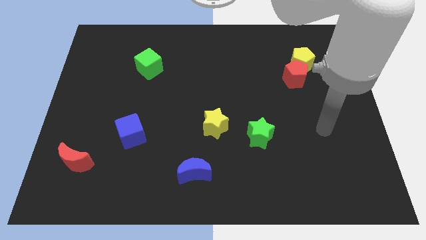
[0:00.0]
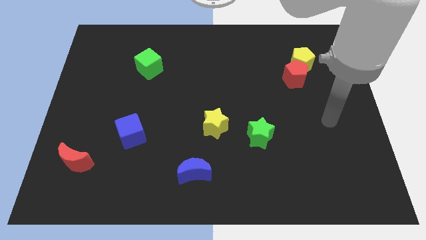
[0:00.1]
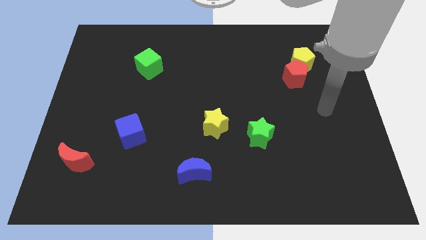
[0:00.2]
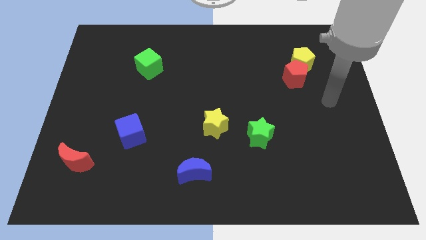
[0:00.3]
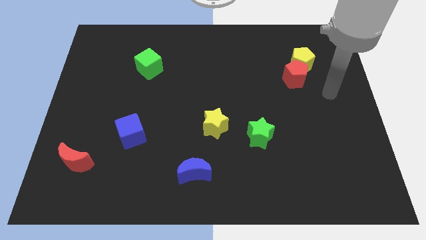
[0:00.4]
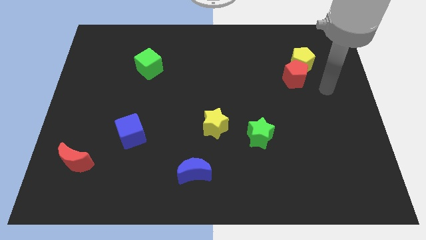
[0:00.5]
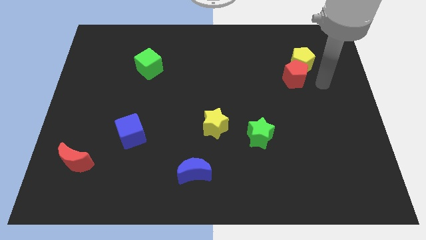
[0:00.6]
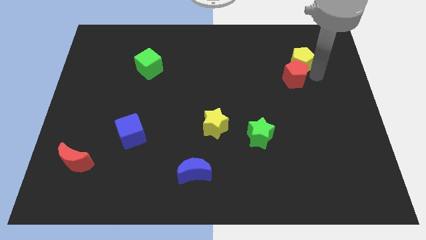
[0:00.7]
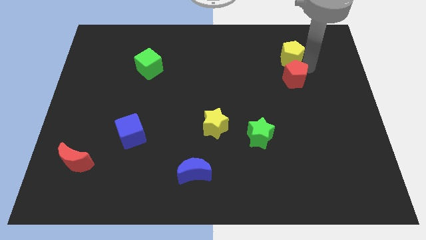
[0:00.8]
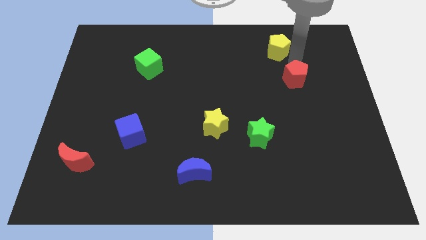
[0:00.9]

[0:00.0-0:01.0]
separate the red pentagon from the yellow pentagon

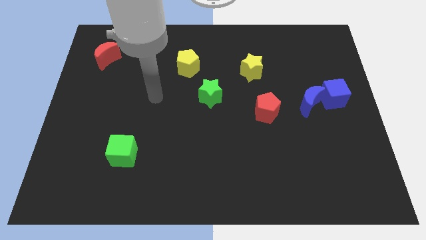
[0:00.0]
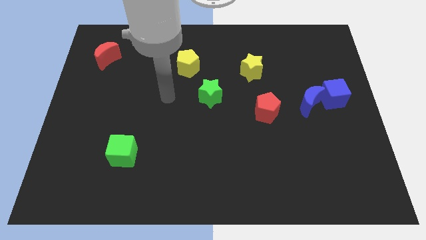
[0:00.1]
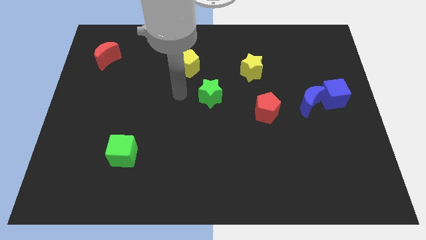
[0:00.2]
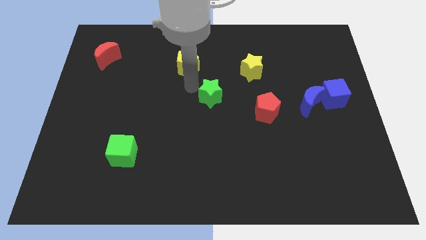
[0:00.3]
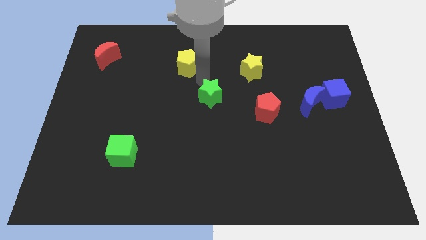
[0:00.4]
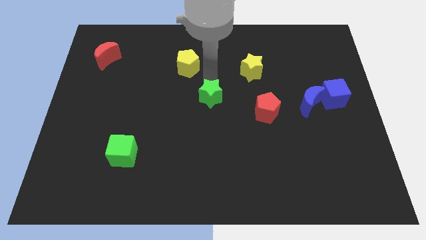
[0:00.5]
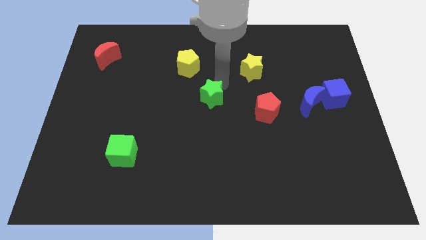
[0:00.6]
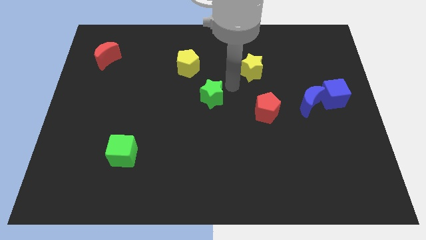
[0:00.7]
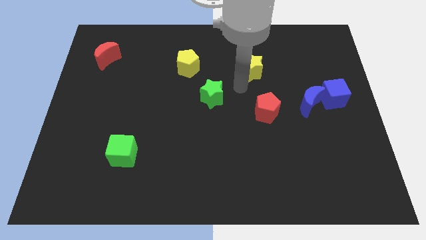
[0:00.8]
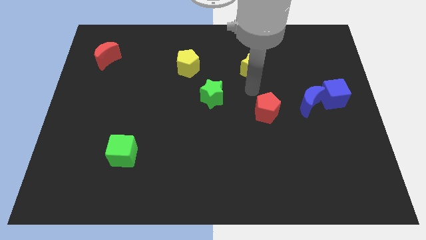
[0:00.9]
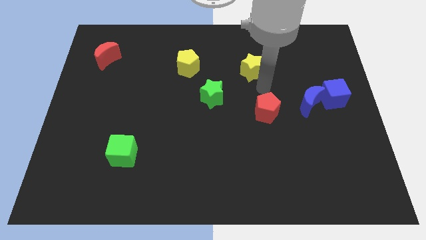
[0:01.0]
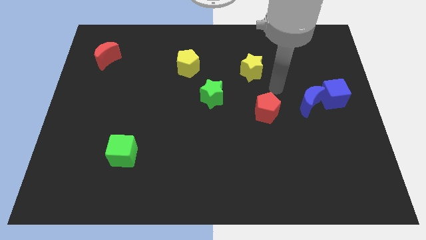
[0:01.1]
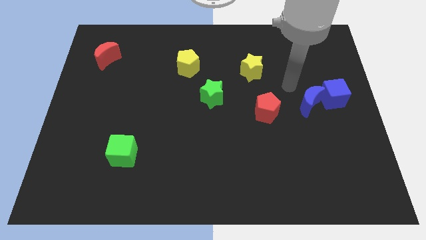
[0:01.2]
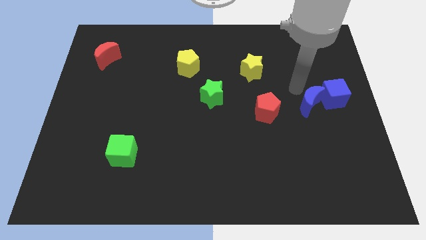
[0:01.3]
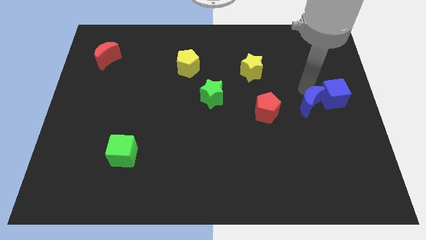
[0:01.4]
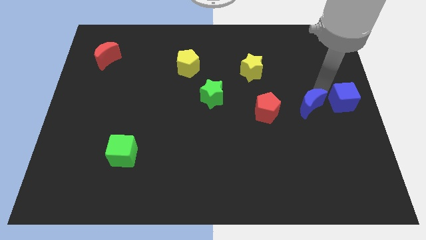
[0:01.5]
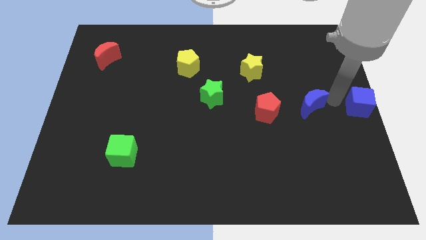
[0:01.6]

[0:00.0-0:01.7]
pull the blue moon apart from the blue cube

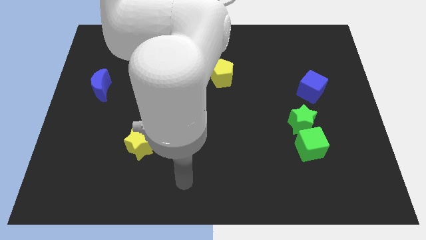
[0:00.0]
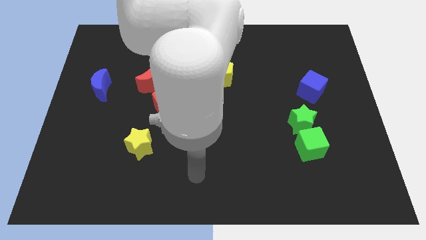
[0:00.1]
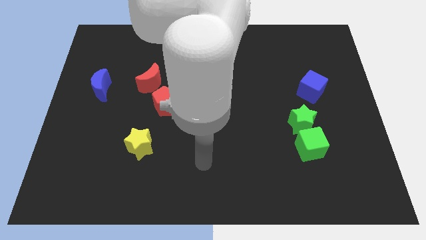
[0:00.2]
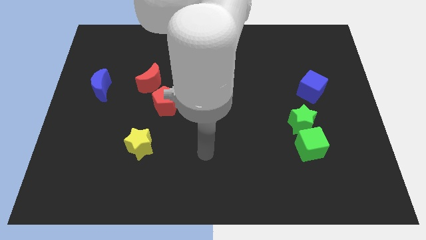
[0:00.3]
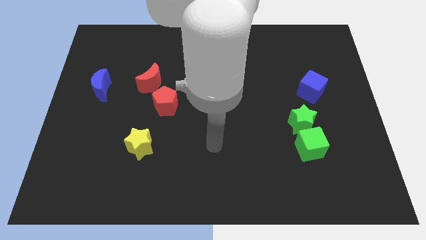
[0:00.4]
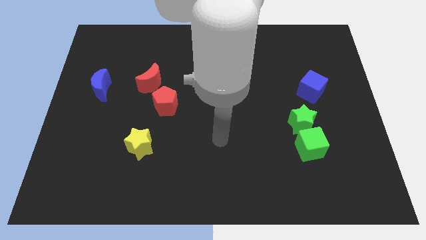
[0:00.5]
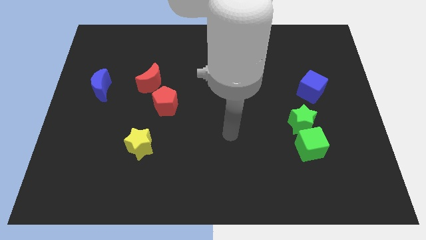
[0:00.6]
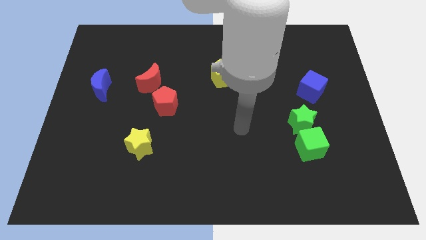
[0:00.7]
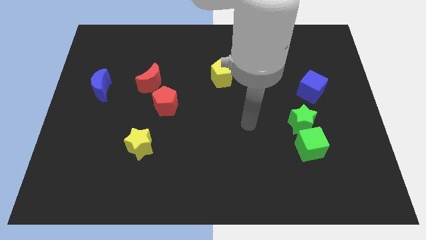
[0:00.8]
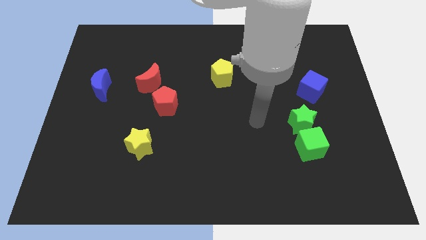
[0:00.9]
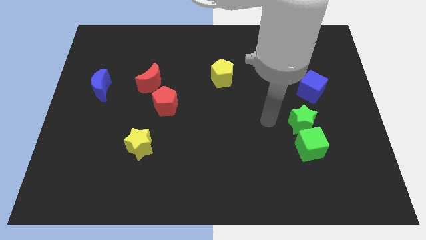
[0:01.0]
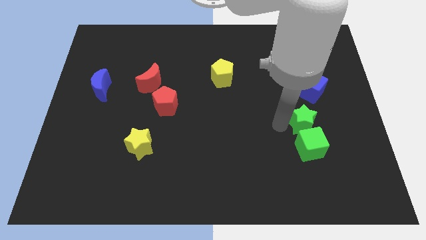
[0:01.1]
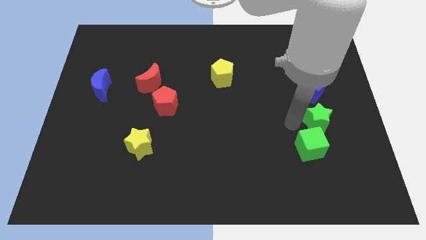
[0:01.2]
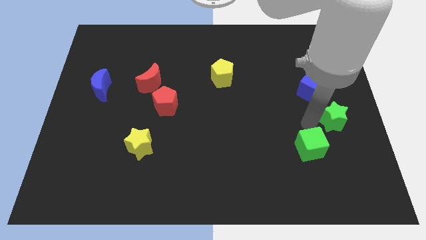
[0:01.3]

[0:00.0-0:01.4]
pull the green cube apart from the green star

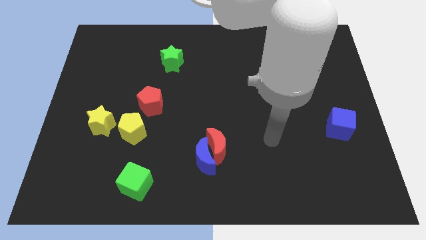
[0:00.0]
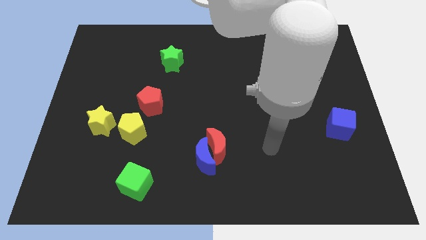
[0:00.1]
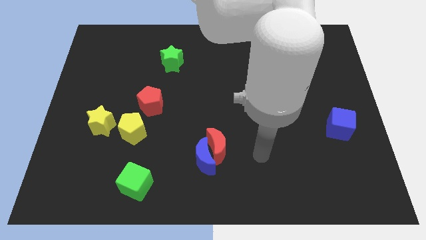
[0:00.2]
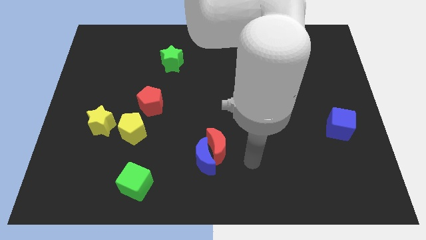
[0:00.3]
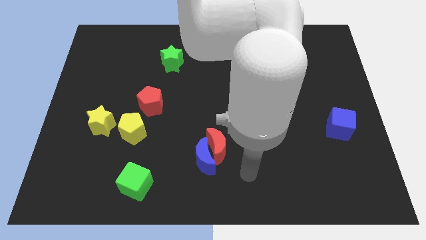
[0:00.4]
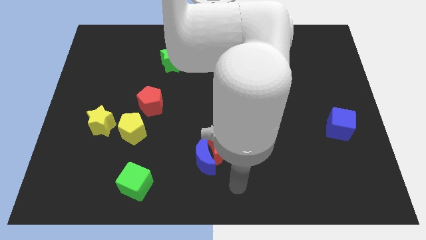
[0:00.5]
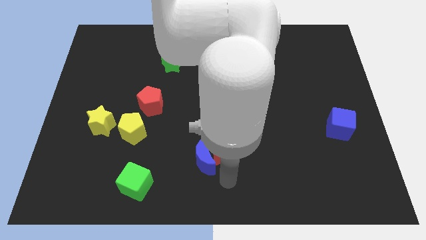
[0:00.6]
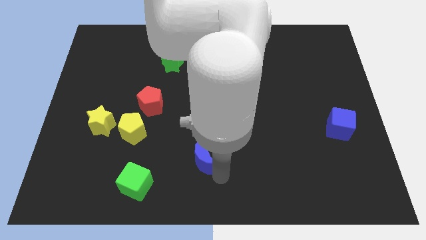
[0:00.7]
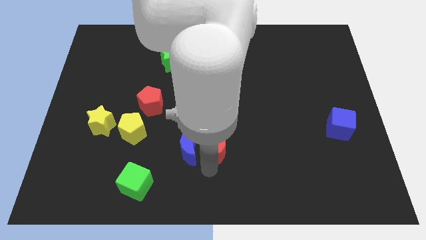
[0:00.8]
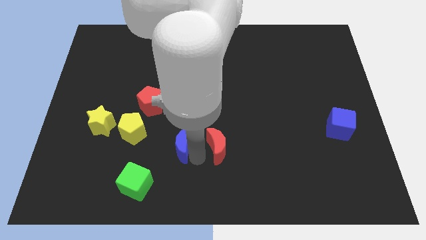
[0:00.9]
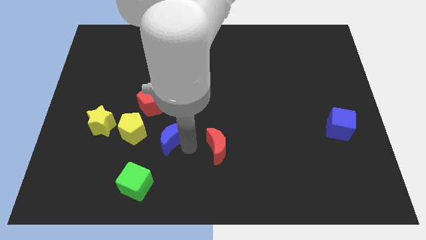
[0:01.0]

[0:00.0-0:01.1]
move the red moon away from the blue moon

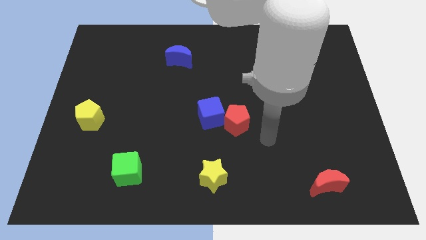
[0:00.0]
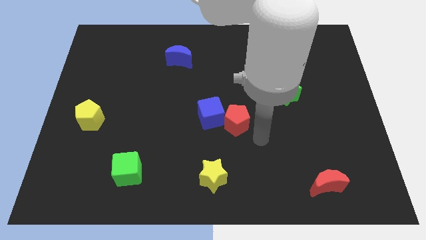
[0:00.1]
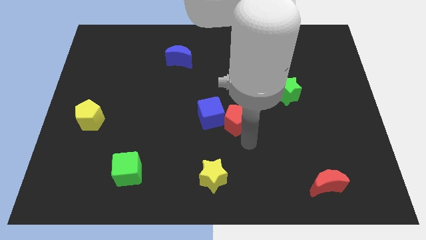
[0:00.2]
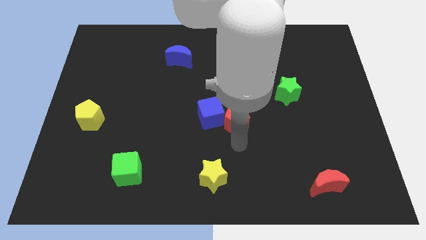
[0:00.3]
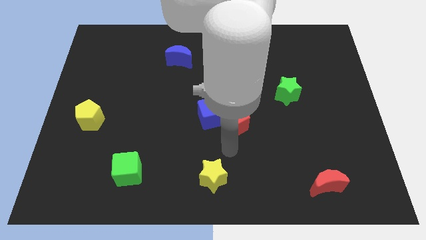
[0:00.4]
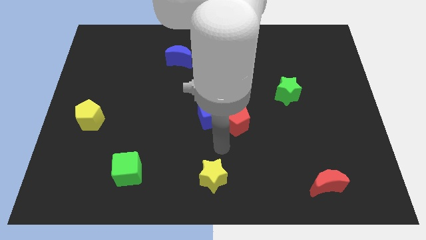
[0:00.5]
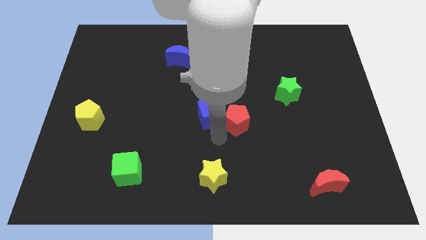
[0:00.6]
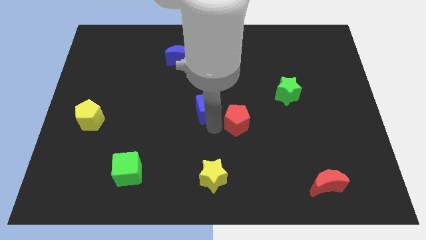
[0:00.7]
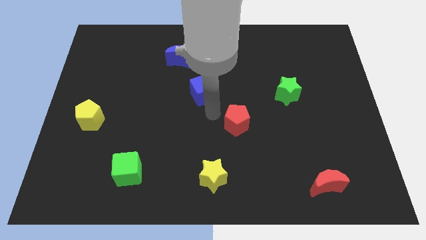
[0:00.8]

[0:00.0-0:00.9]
move the red pentagon away from the blue cube

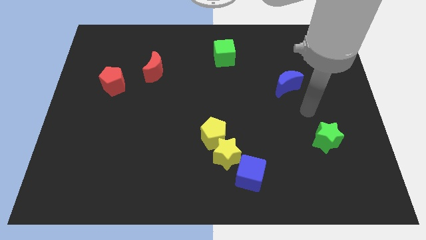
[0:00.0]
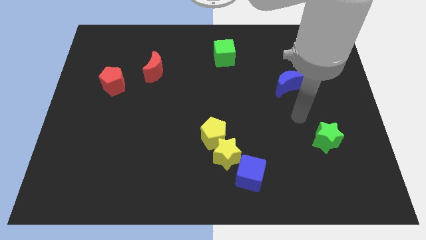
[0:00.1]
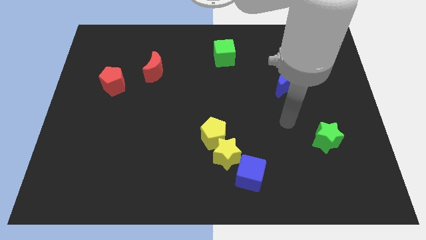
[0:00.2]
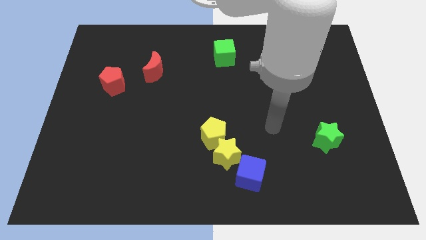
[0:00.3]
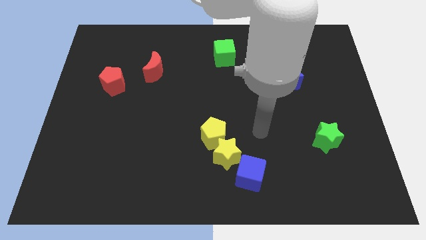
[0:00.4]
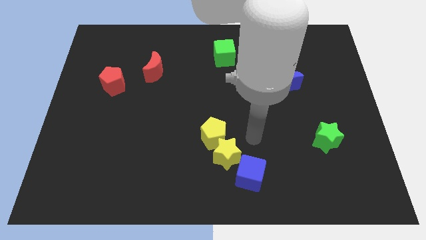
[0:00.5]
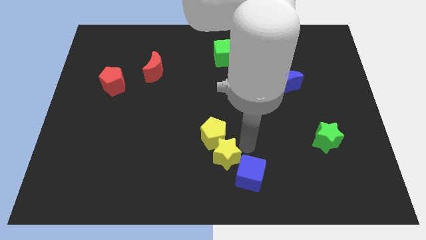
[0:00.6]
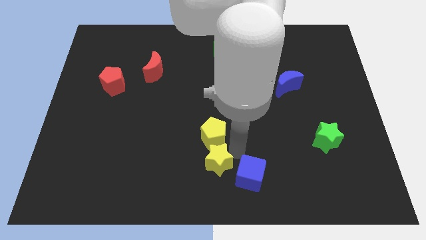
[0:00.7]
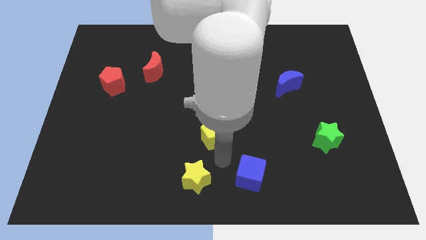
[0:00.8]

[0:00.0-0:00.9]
pull the yellow pentagon apart from the yellow star

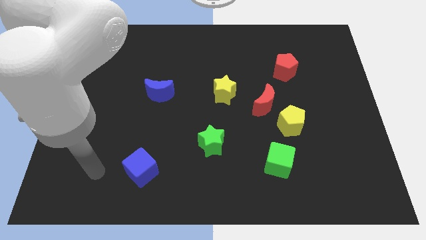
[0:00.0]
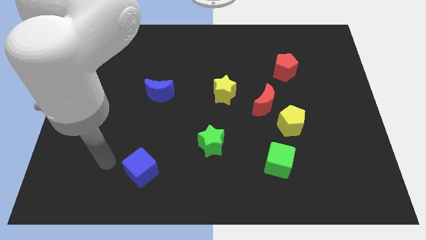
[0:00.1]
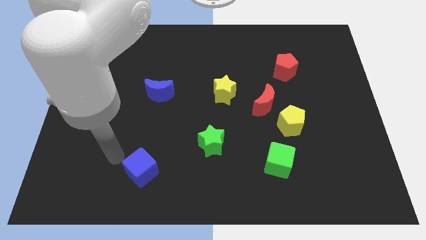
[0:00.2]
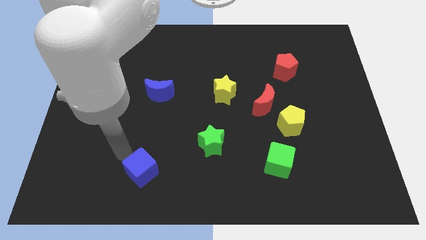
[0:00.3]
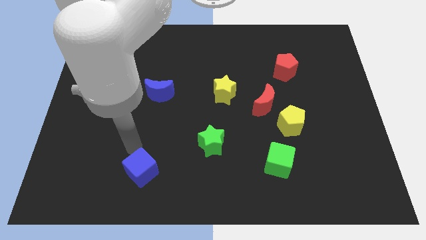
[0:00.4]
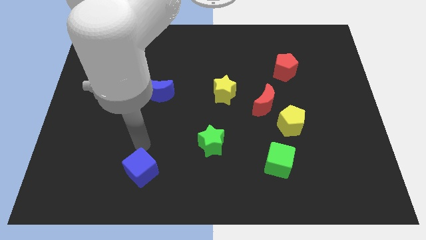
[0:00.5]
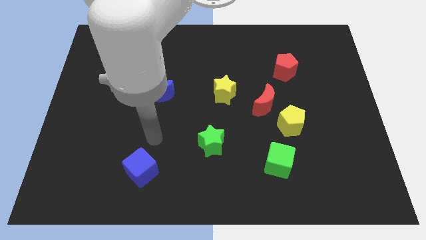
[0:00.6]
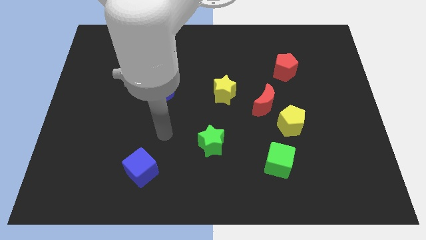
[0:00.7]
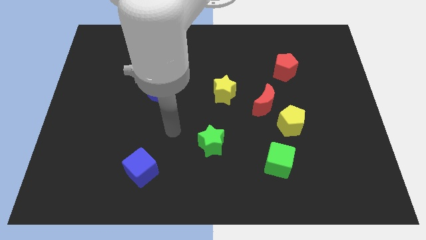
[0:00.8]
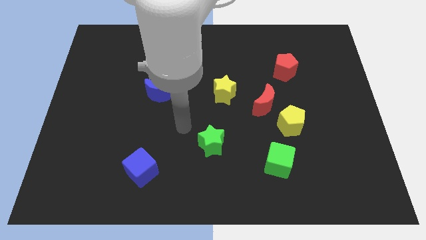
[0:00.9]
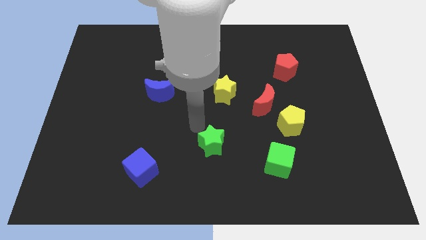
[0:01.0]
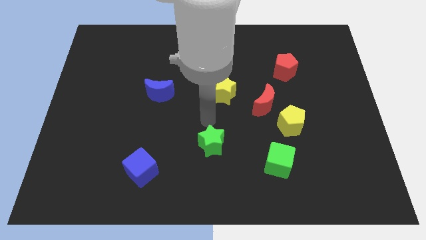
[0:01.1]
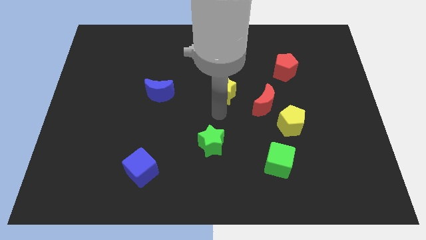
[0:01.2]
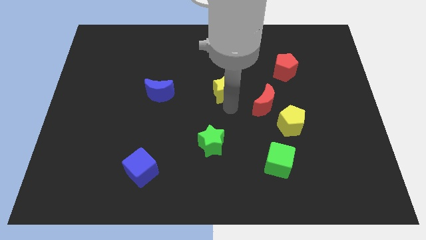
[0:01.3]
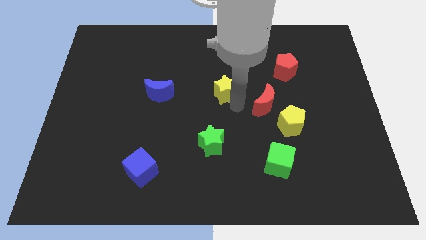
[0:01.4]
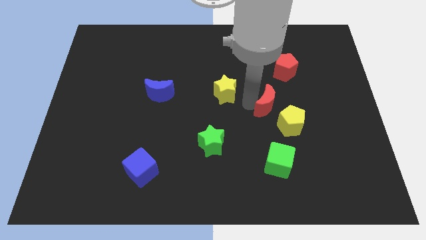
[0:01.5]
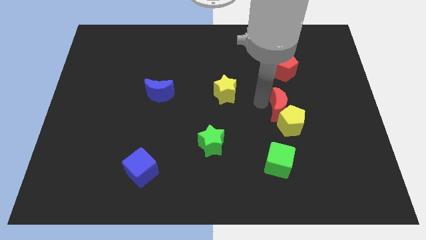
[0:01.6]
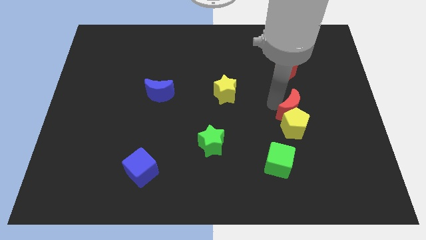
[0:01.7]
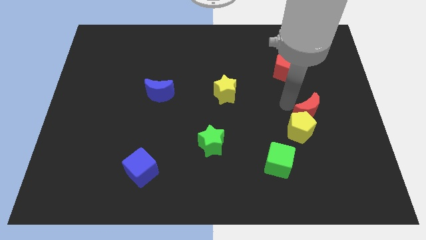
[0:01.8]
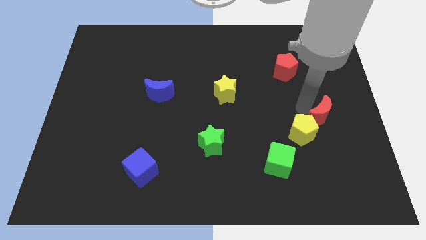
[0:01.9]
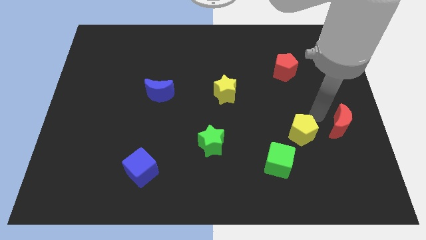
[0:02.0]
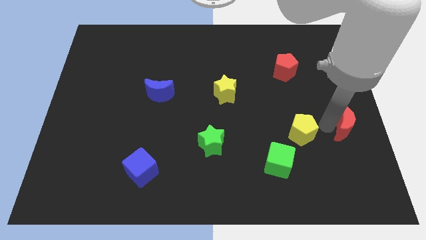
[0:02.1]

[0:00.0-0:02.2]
separate the yellow pentagon from the red moon

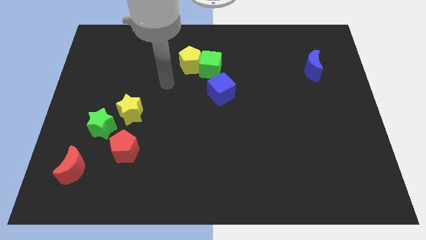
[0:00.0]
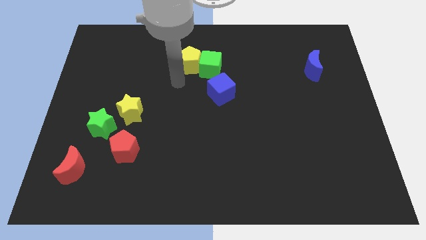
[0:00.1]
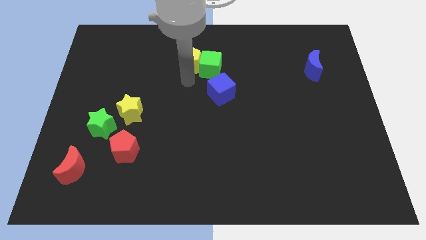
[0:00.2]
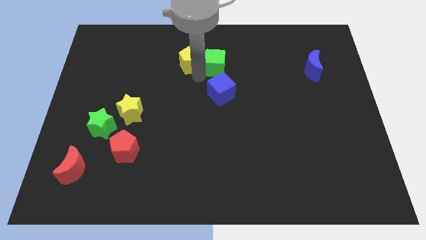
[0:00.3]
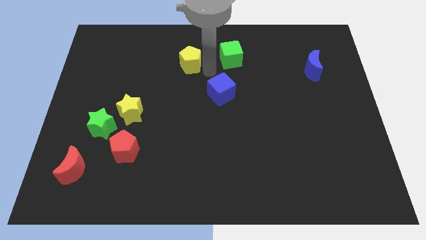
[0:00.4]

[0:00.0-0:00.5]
pull the yellow pentagon apart from the green cube
